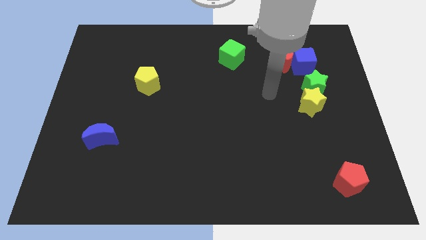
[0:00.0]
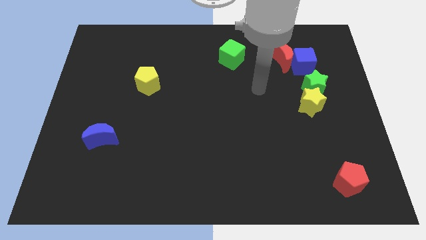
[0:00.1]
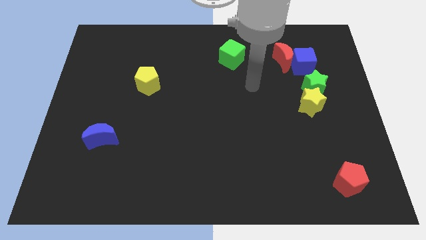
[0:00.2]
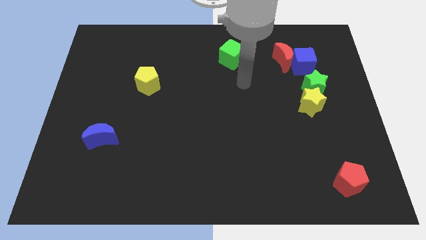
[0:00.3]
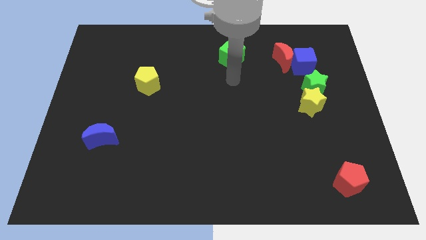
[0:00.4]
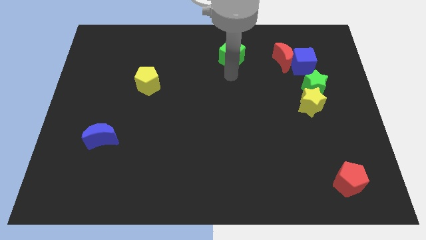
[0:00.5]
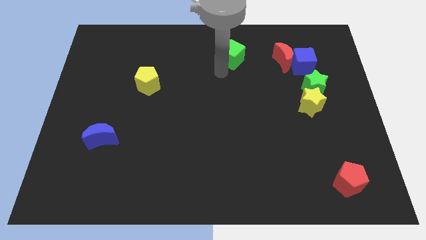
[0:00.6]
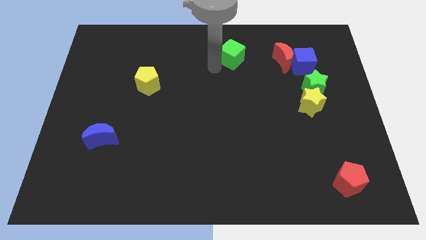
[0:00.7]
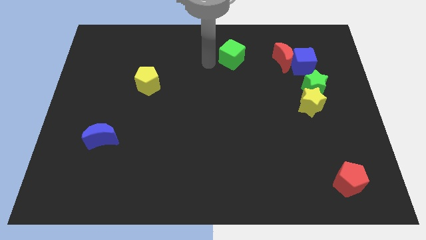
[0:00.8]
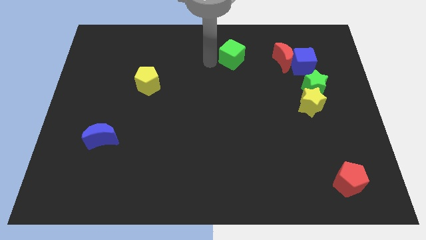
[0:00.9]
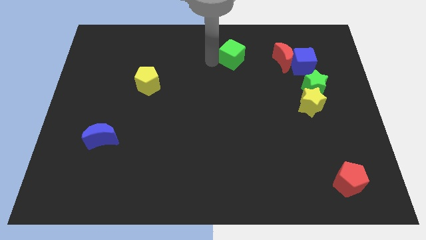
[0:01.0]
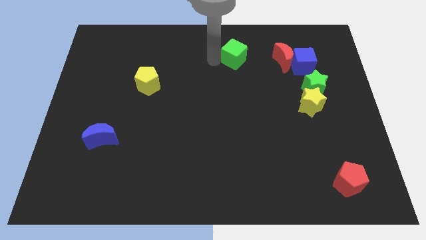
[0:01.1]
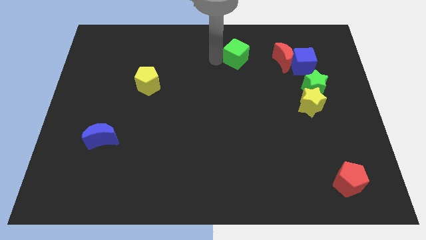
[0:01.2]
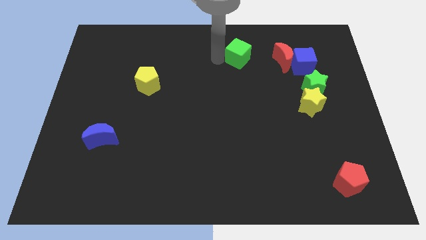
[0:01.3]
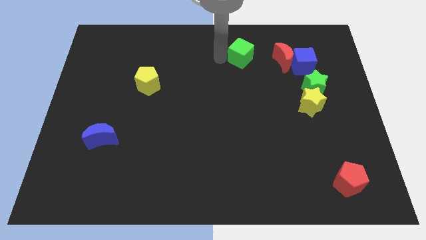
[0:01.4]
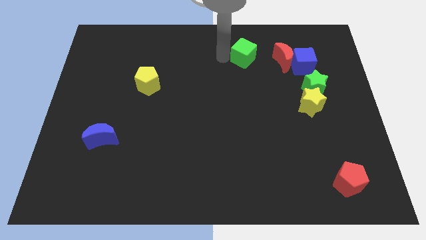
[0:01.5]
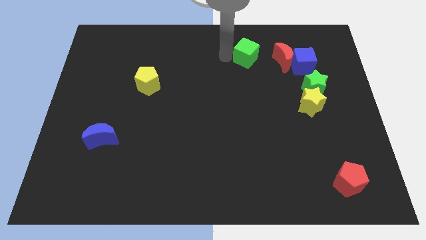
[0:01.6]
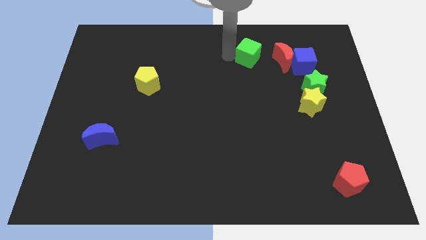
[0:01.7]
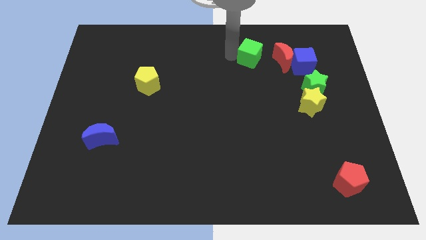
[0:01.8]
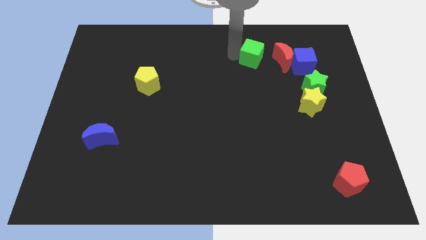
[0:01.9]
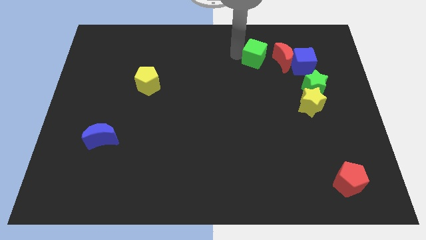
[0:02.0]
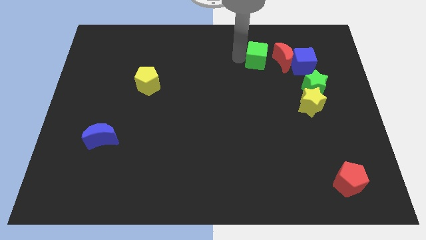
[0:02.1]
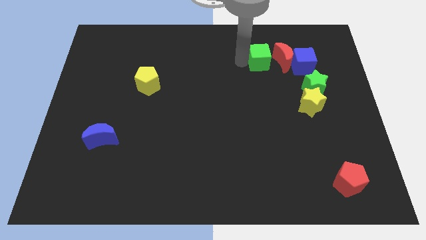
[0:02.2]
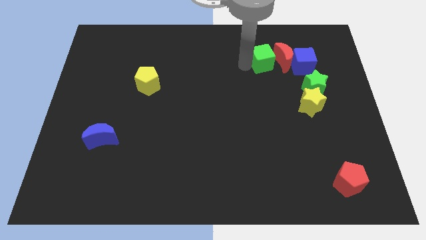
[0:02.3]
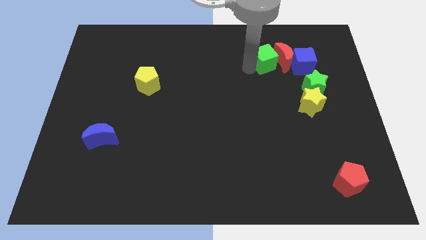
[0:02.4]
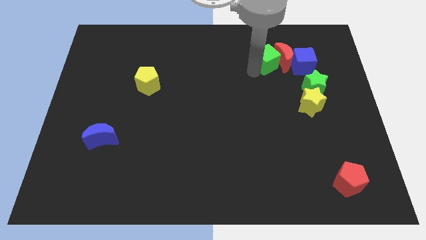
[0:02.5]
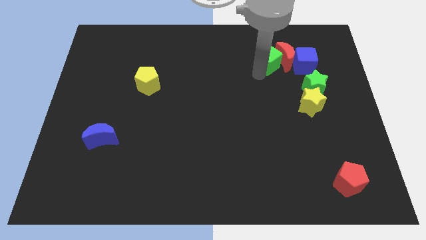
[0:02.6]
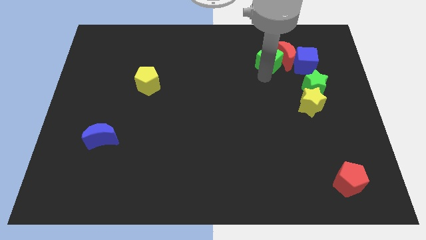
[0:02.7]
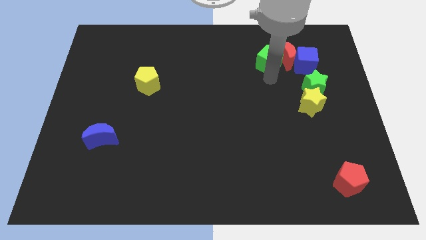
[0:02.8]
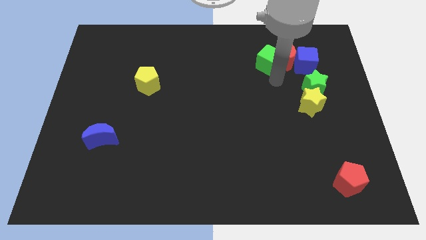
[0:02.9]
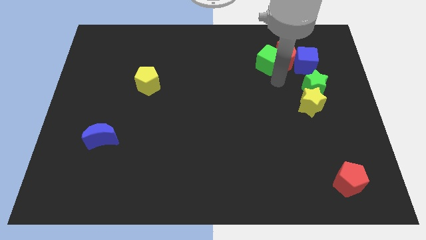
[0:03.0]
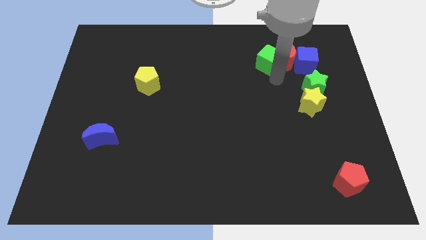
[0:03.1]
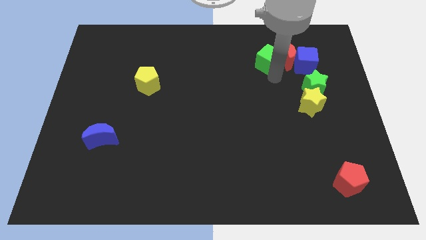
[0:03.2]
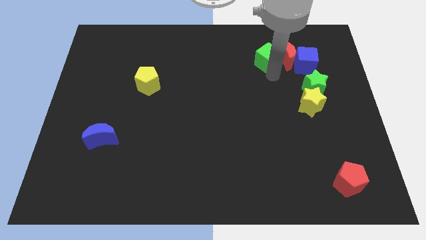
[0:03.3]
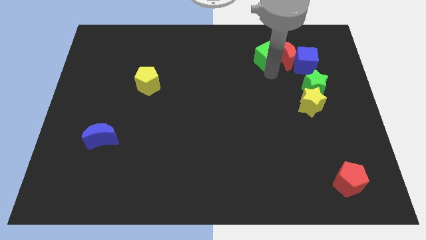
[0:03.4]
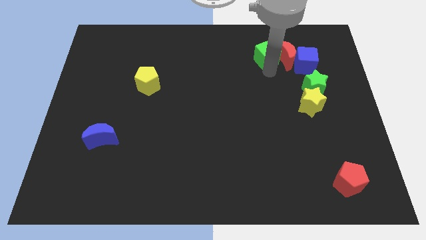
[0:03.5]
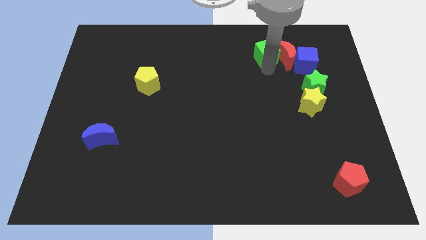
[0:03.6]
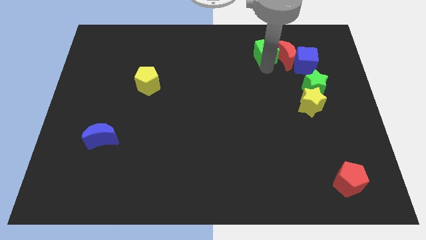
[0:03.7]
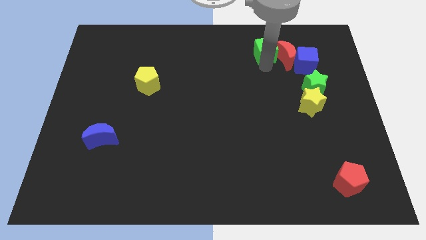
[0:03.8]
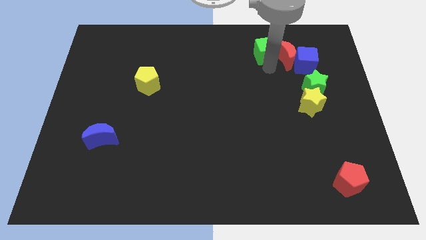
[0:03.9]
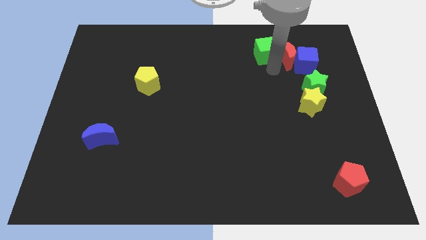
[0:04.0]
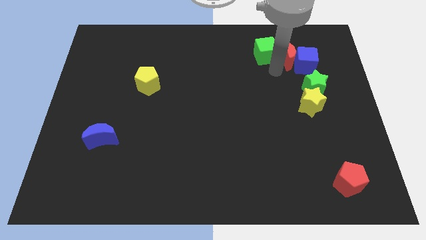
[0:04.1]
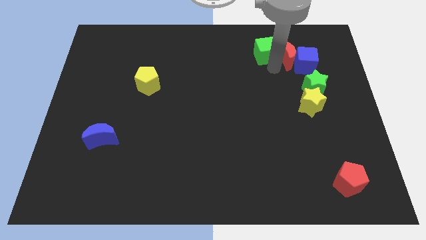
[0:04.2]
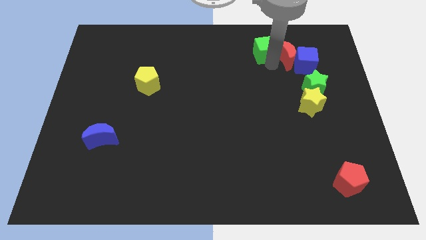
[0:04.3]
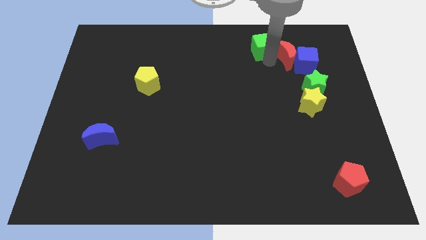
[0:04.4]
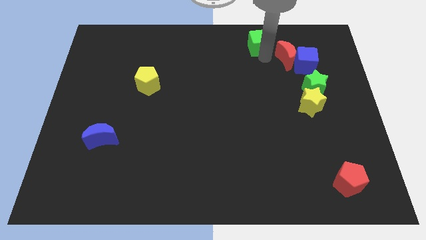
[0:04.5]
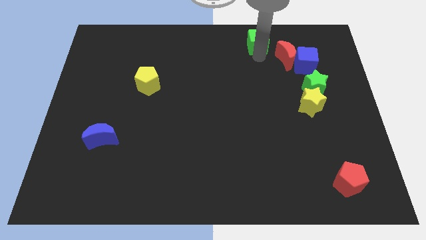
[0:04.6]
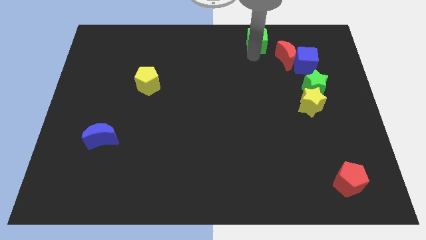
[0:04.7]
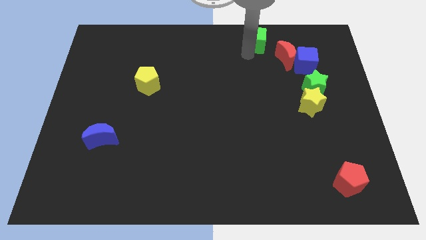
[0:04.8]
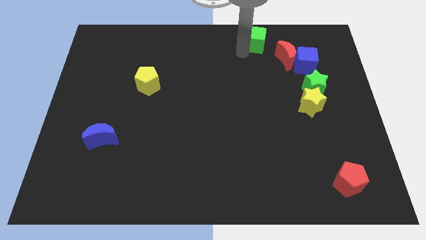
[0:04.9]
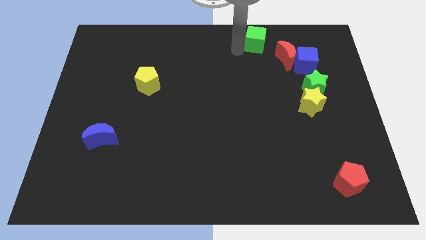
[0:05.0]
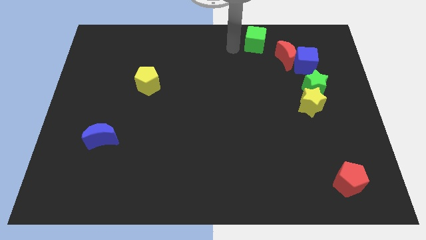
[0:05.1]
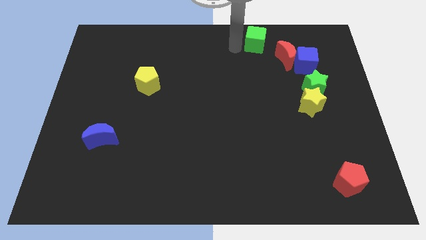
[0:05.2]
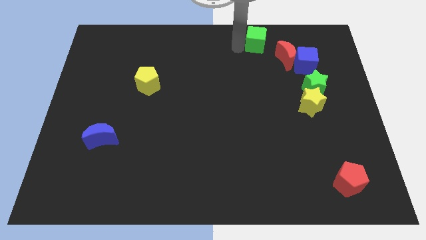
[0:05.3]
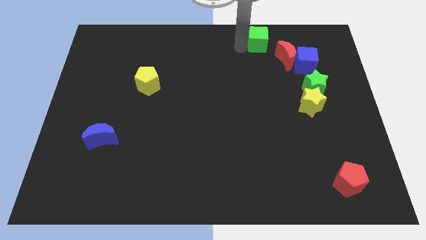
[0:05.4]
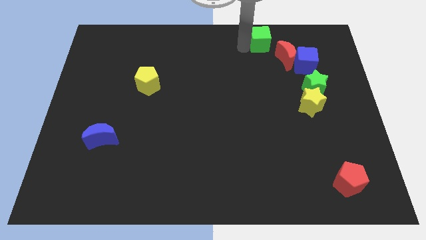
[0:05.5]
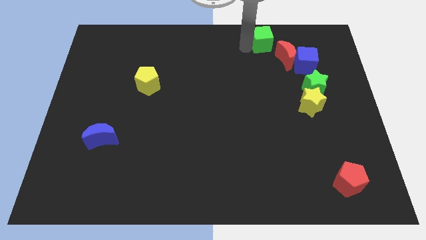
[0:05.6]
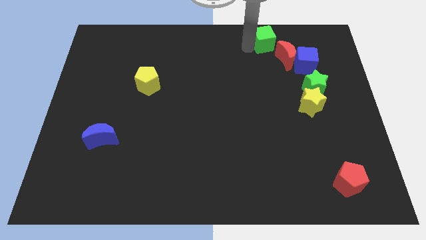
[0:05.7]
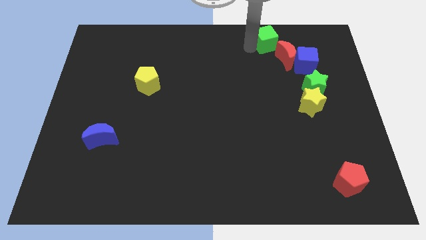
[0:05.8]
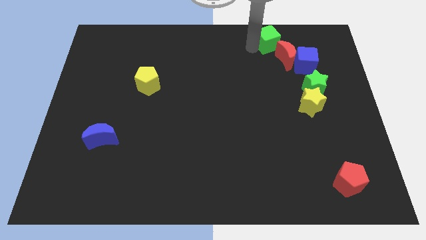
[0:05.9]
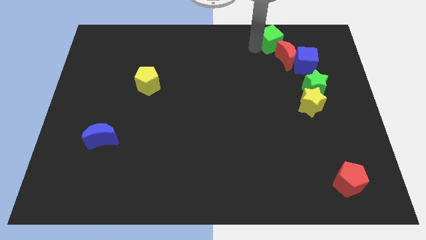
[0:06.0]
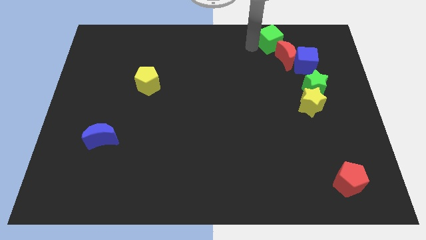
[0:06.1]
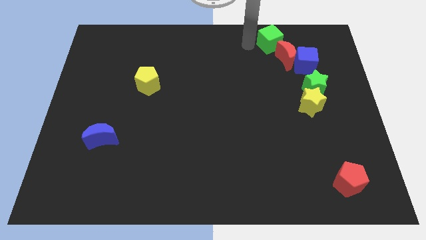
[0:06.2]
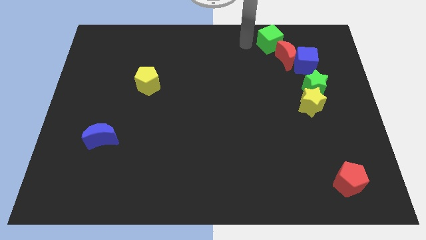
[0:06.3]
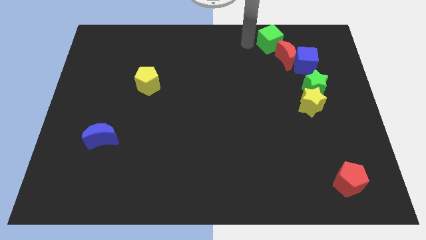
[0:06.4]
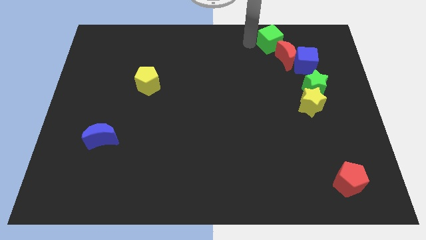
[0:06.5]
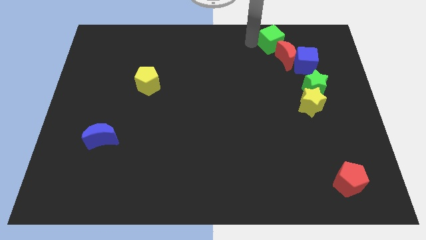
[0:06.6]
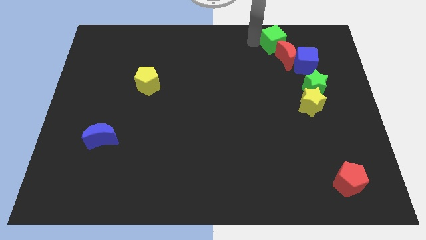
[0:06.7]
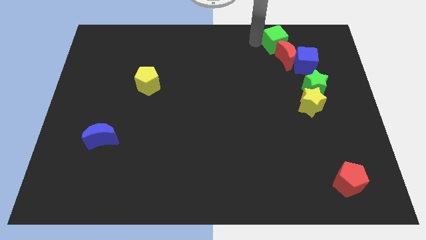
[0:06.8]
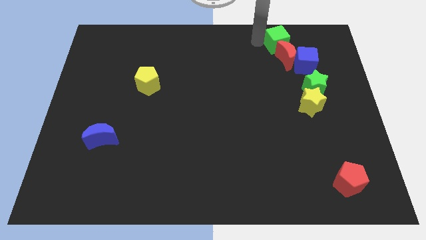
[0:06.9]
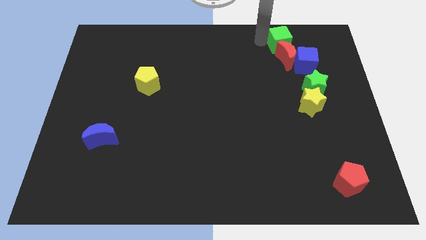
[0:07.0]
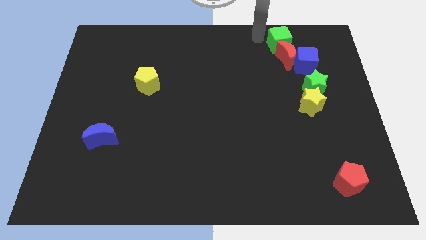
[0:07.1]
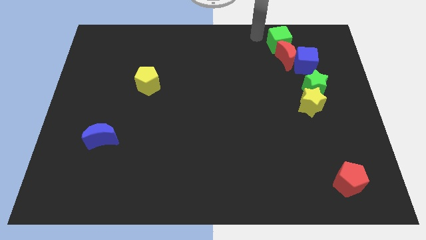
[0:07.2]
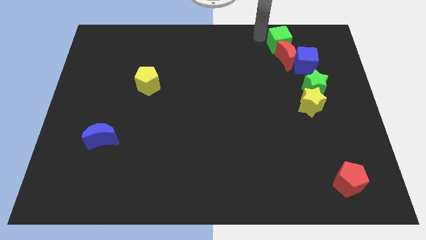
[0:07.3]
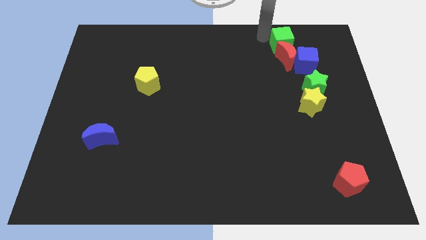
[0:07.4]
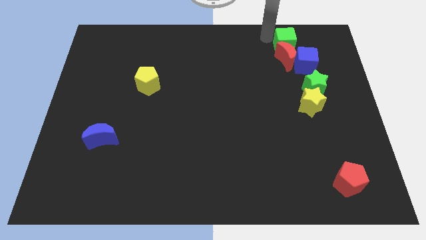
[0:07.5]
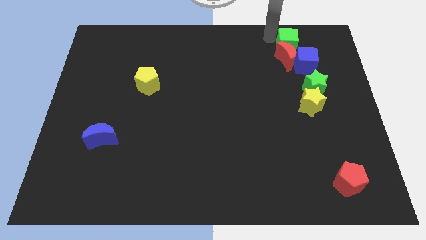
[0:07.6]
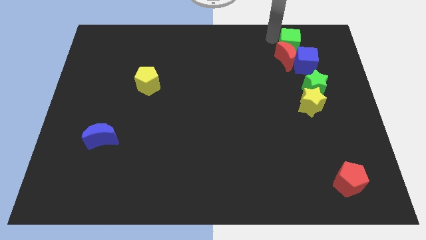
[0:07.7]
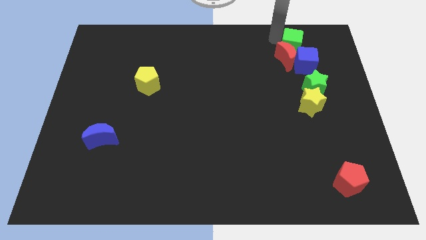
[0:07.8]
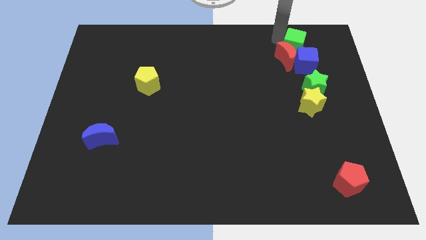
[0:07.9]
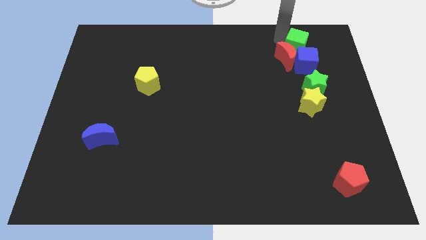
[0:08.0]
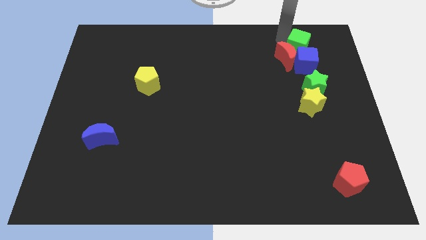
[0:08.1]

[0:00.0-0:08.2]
slide the green cube to the right of the red moon
